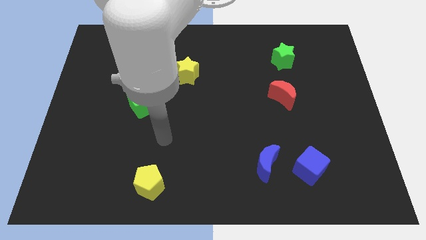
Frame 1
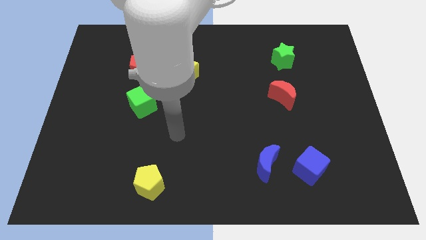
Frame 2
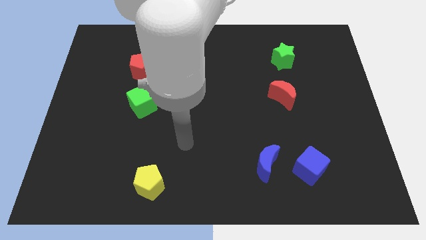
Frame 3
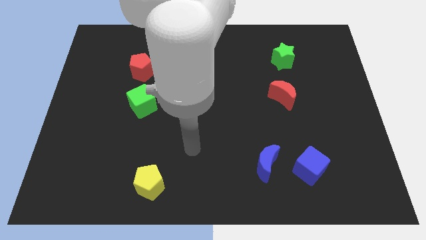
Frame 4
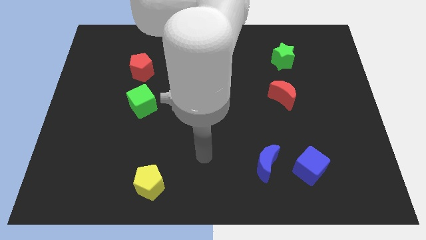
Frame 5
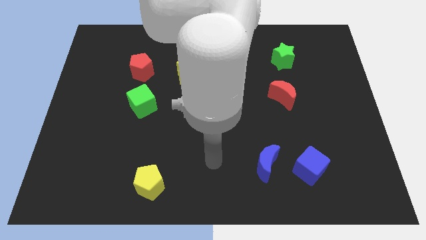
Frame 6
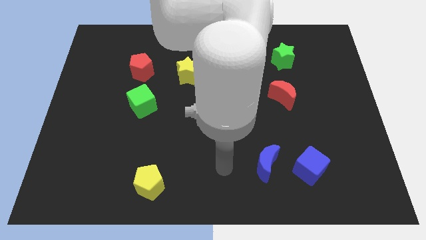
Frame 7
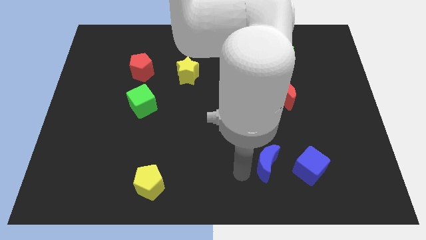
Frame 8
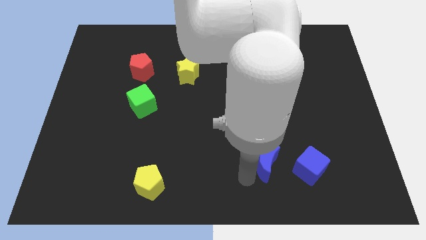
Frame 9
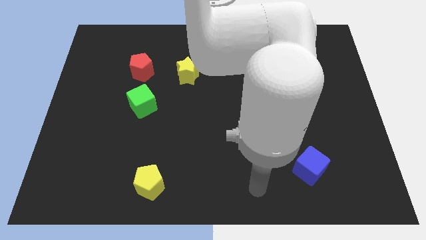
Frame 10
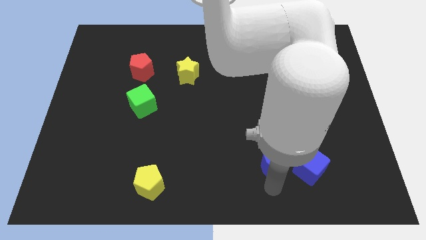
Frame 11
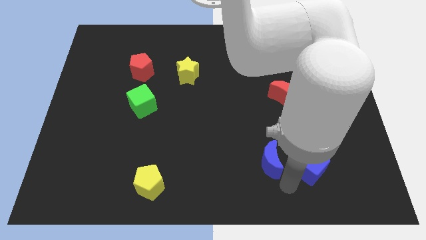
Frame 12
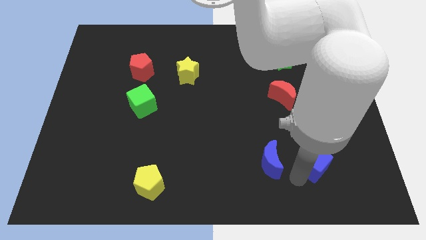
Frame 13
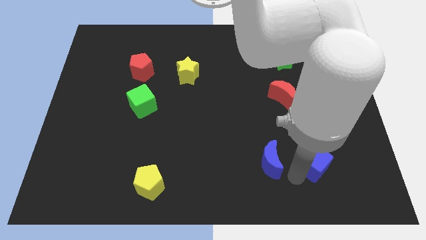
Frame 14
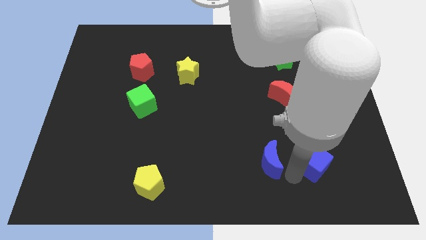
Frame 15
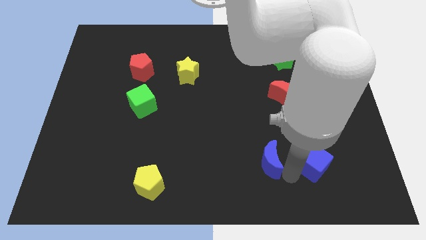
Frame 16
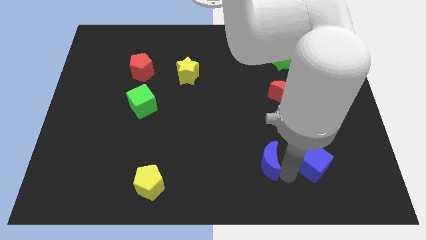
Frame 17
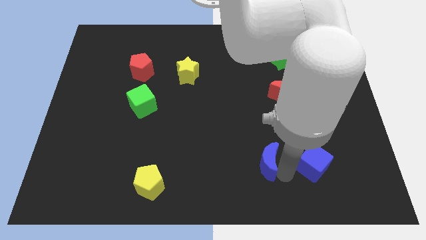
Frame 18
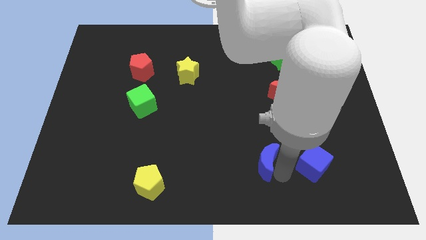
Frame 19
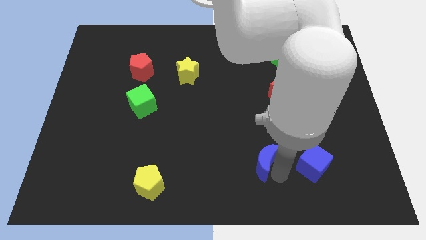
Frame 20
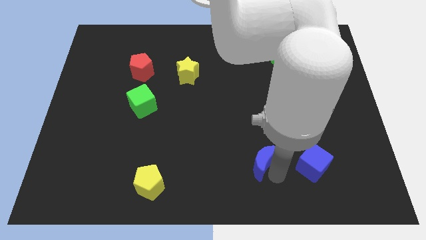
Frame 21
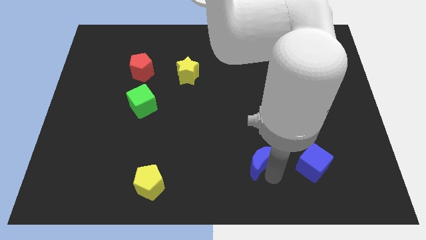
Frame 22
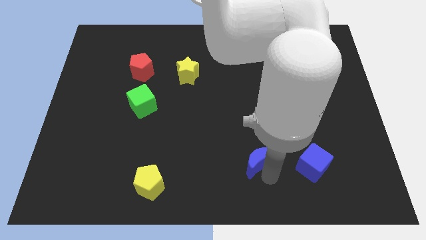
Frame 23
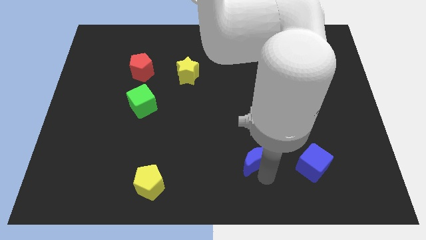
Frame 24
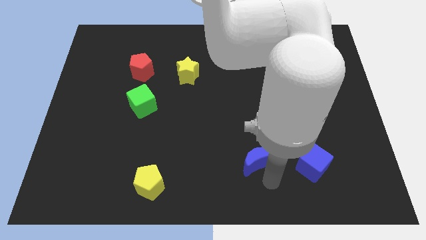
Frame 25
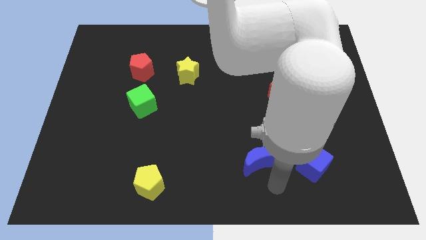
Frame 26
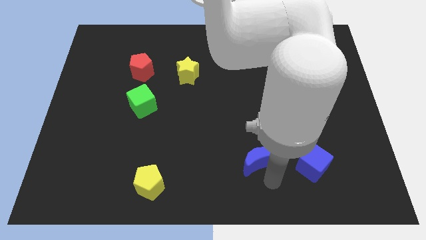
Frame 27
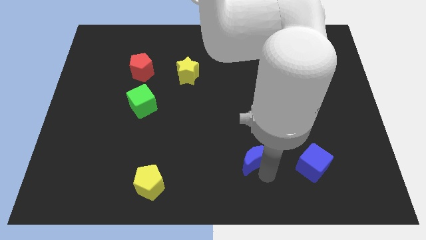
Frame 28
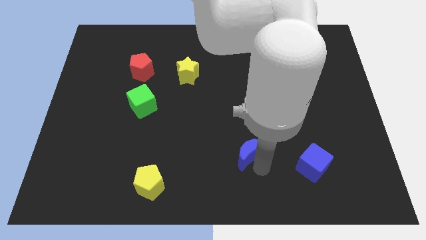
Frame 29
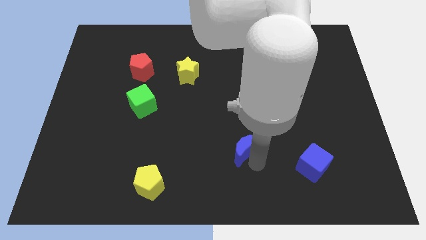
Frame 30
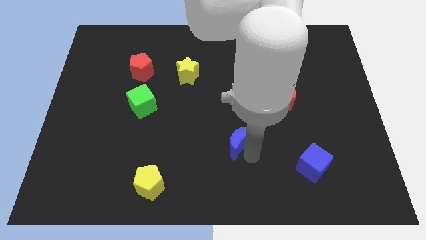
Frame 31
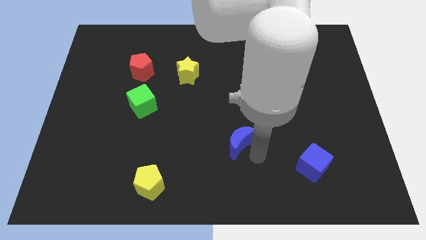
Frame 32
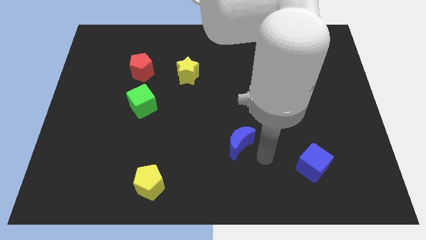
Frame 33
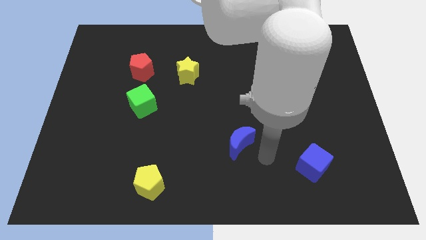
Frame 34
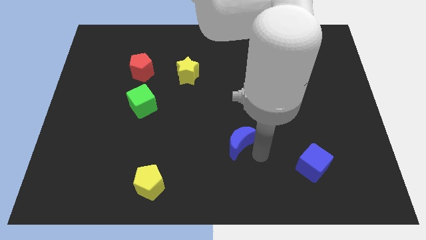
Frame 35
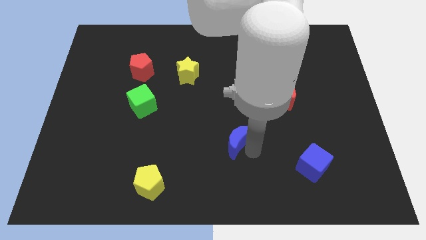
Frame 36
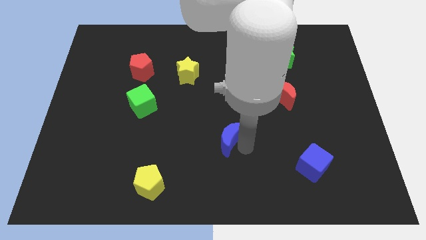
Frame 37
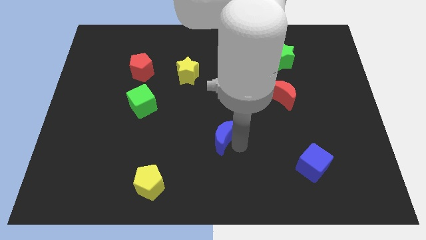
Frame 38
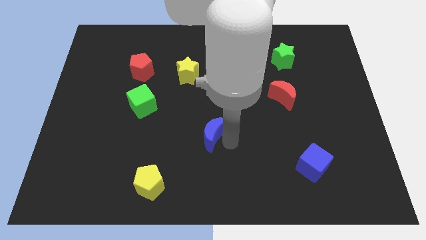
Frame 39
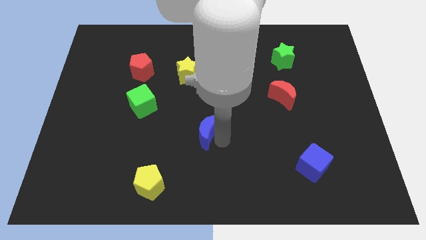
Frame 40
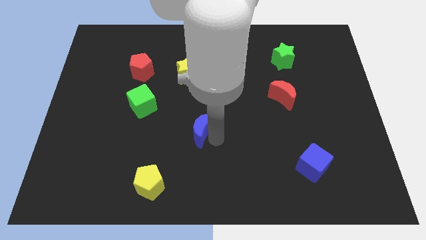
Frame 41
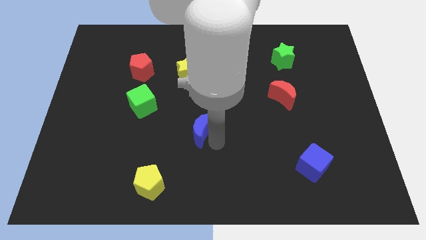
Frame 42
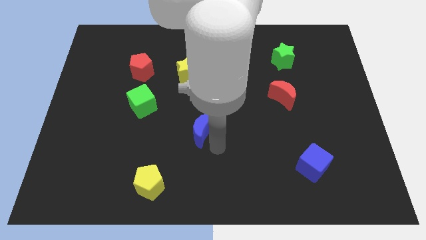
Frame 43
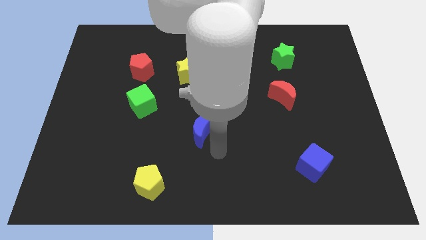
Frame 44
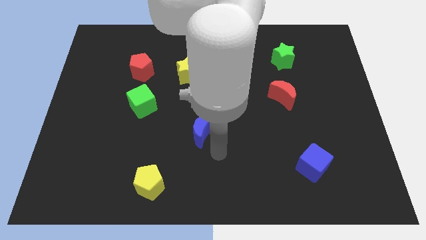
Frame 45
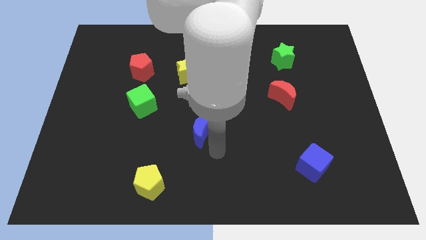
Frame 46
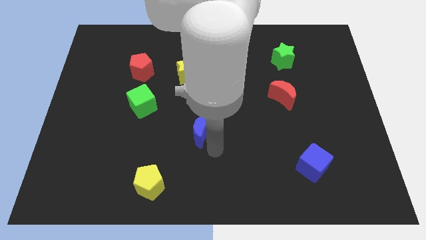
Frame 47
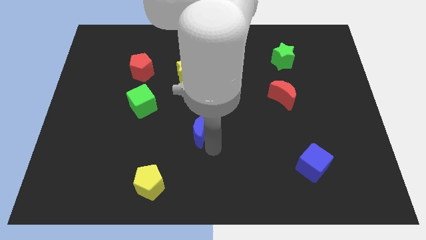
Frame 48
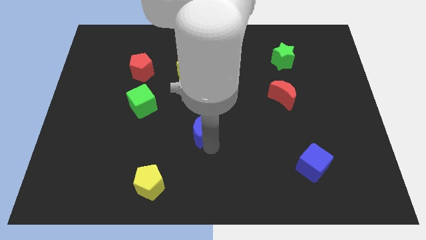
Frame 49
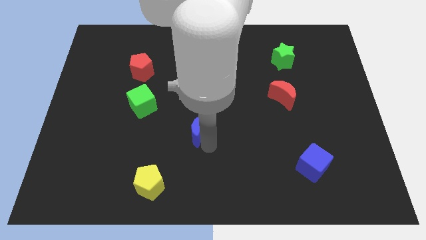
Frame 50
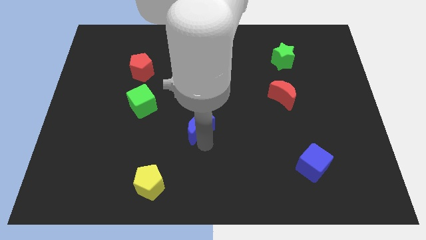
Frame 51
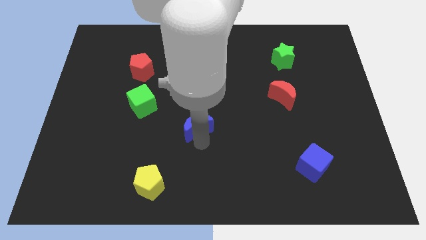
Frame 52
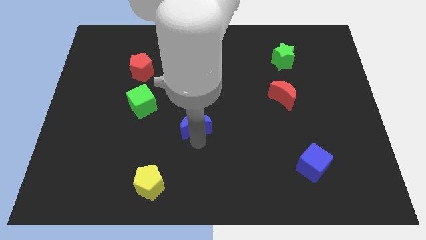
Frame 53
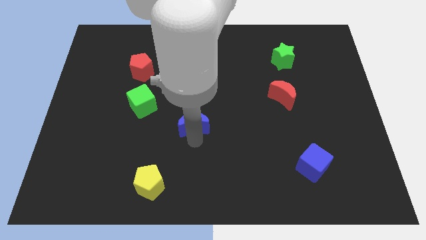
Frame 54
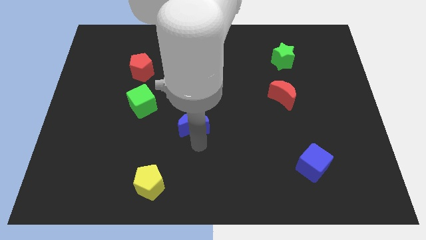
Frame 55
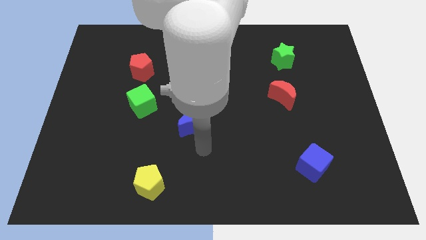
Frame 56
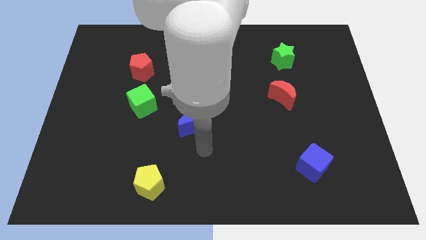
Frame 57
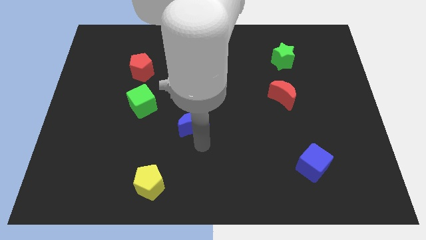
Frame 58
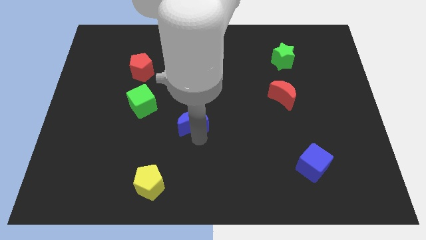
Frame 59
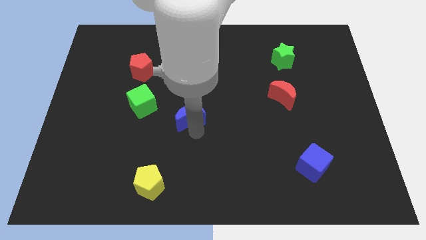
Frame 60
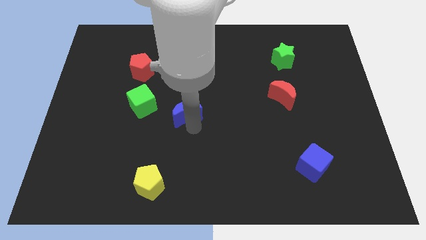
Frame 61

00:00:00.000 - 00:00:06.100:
push the blue moon diagonally up and left

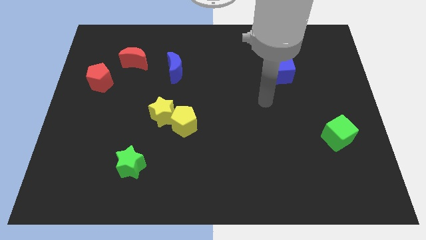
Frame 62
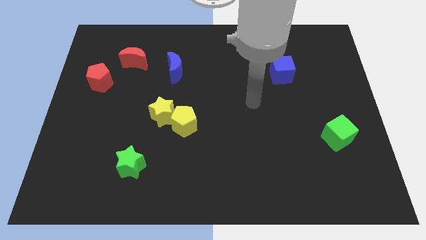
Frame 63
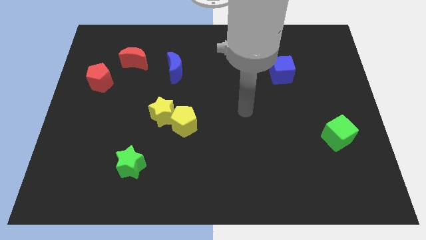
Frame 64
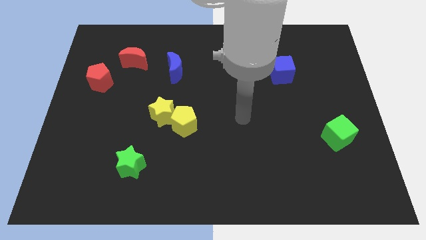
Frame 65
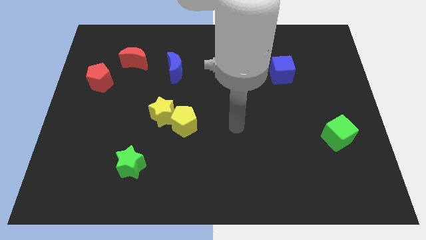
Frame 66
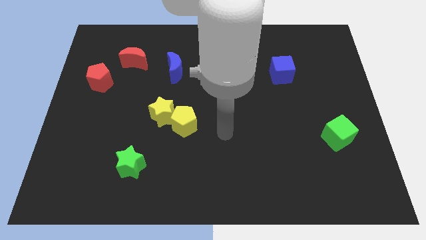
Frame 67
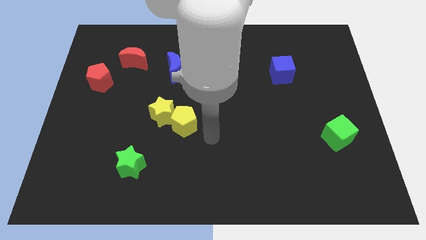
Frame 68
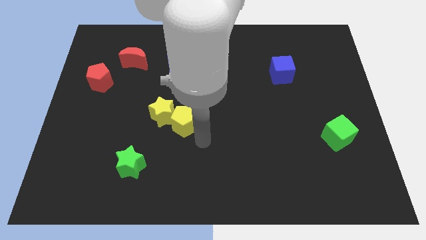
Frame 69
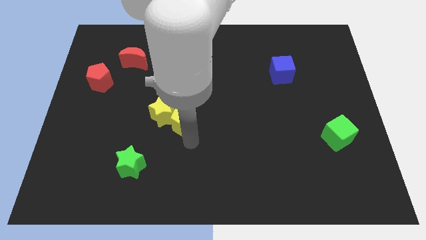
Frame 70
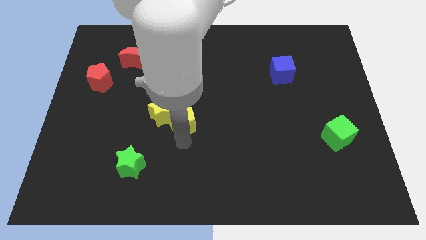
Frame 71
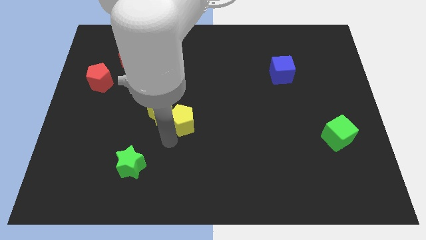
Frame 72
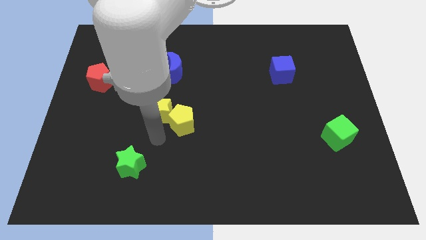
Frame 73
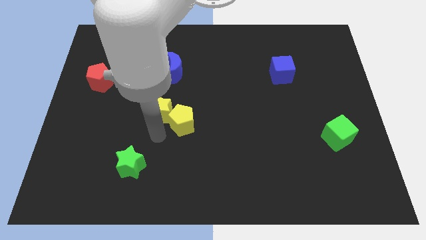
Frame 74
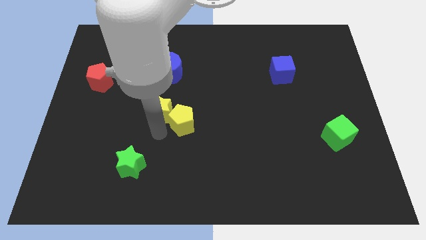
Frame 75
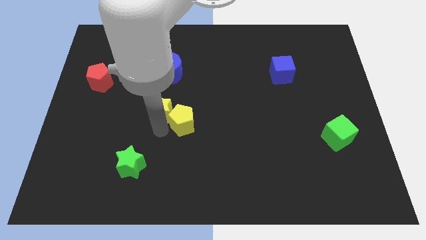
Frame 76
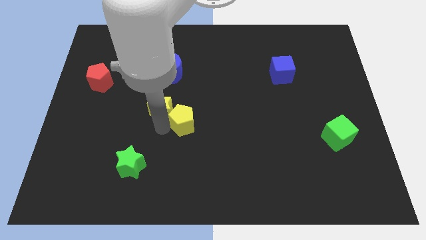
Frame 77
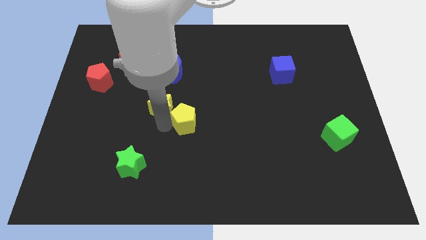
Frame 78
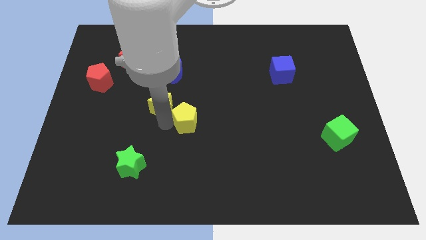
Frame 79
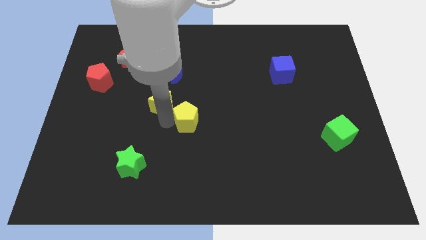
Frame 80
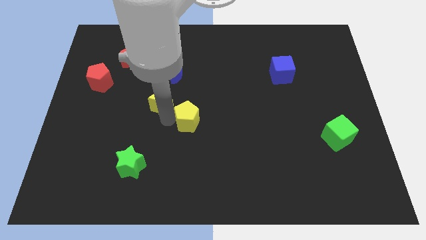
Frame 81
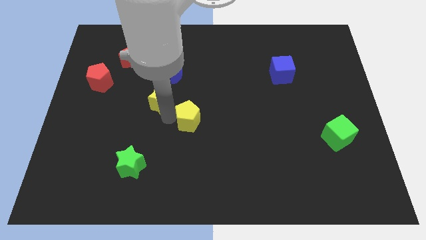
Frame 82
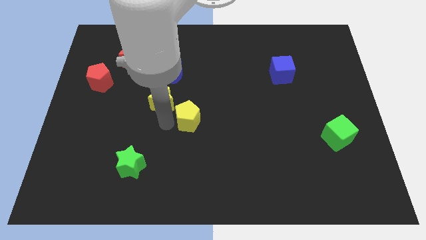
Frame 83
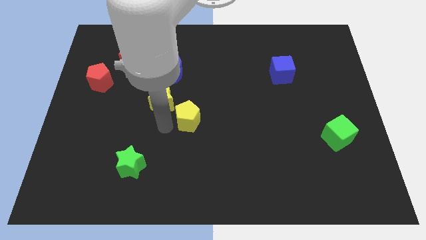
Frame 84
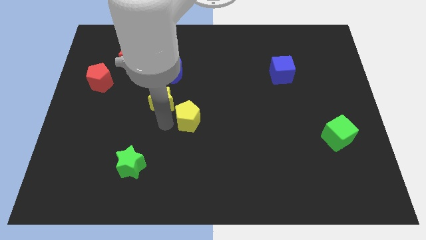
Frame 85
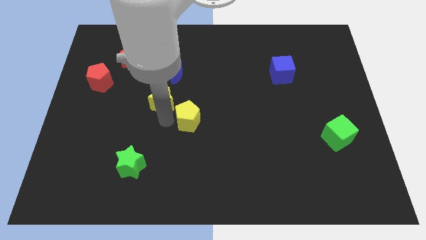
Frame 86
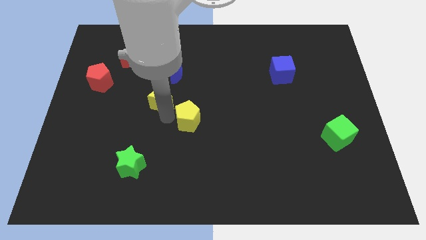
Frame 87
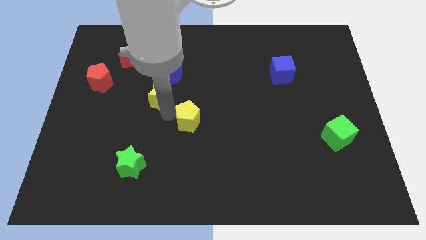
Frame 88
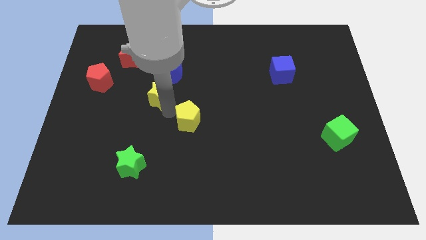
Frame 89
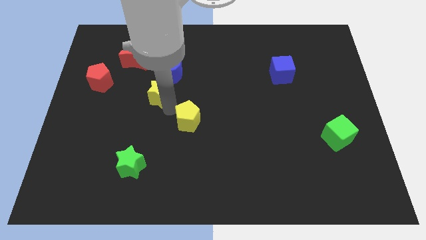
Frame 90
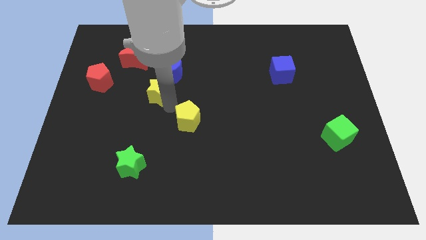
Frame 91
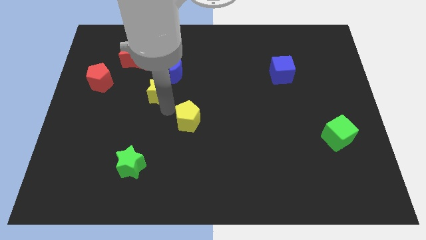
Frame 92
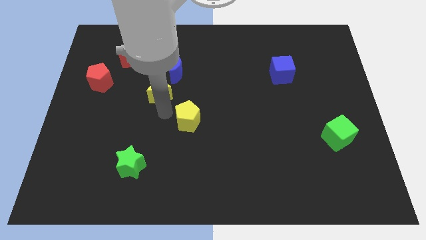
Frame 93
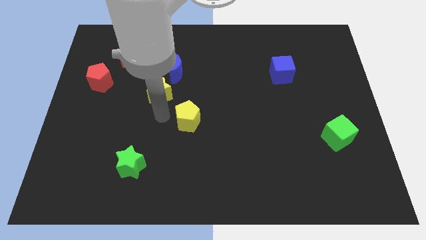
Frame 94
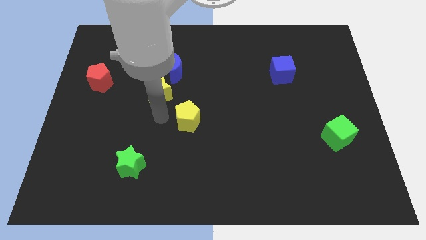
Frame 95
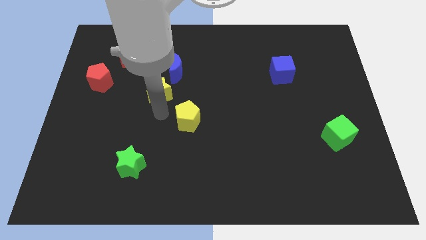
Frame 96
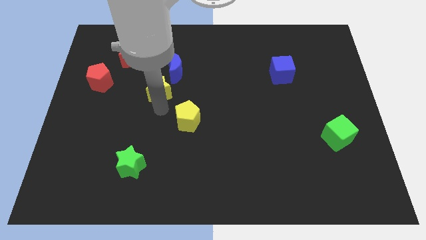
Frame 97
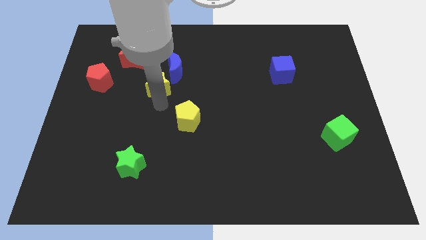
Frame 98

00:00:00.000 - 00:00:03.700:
slightly slide the yellow star upwards
